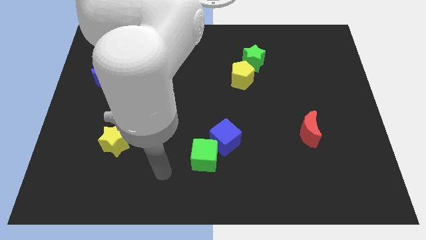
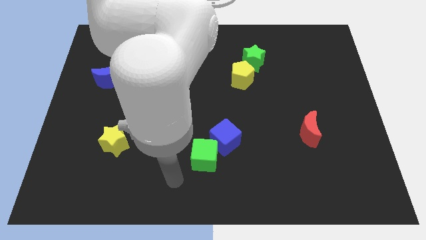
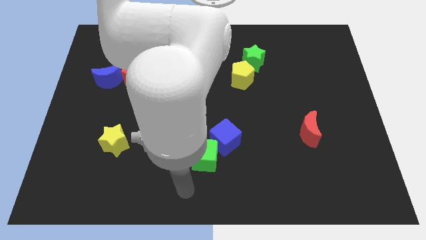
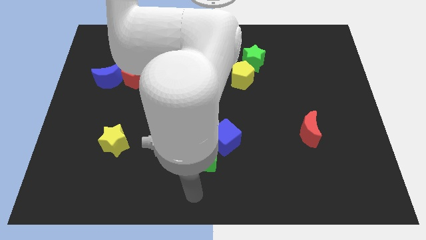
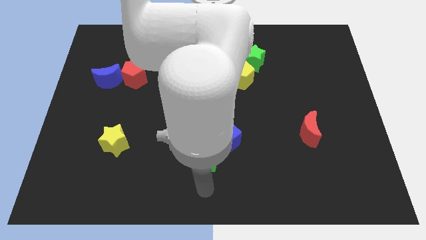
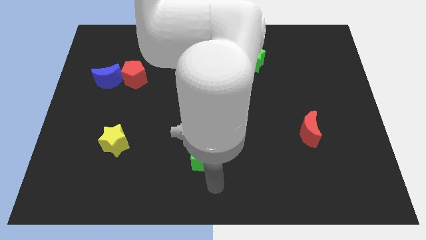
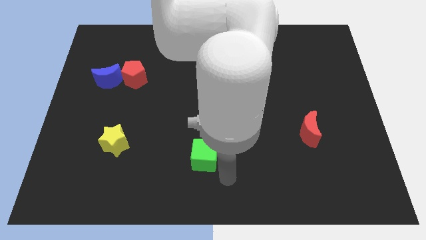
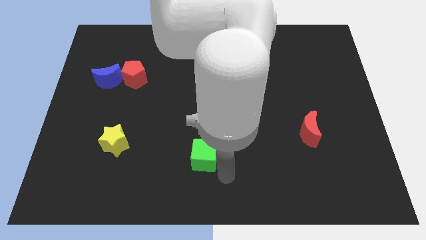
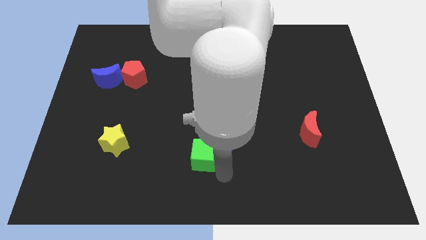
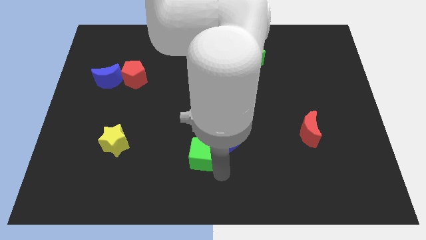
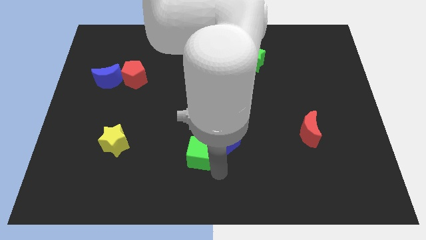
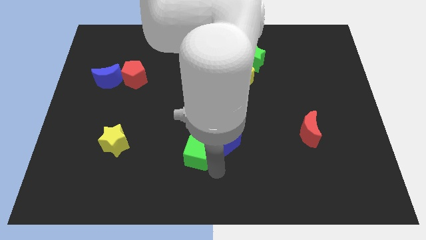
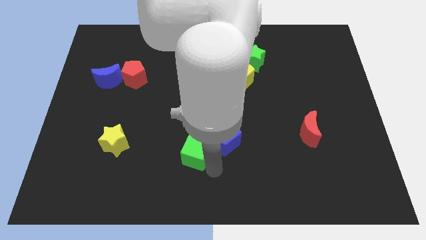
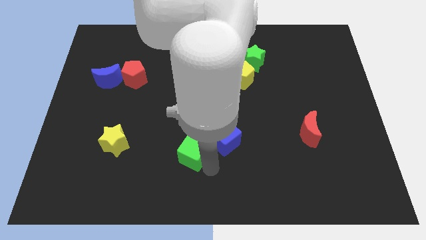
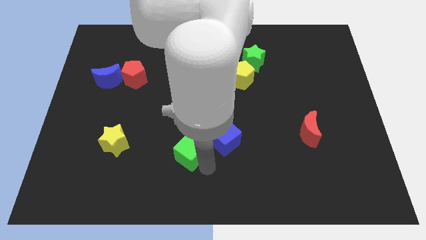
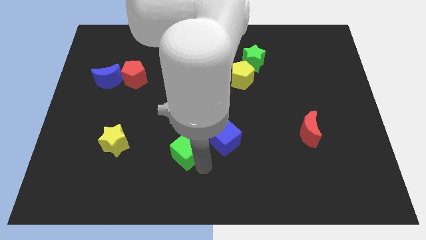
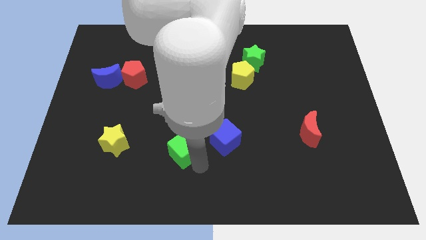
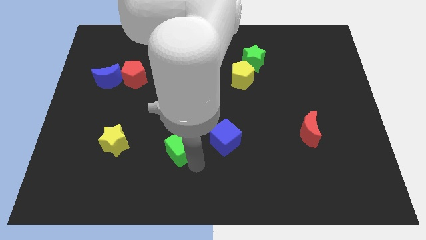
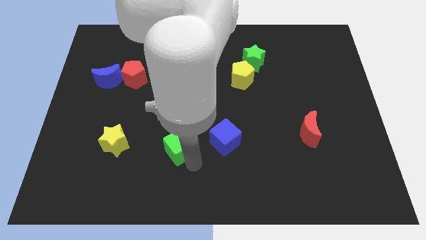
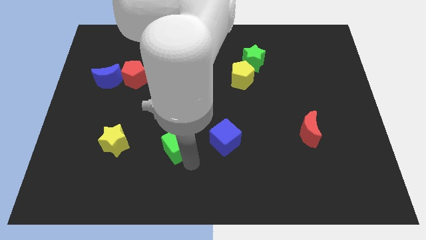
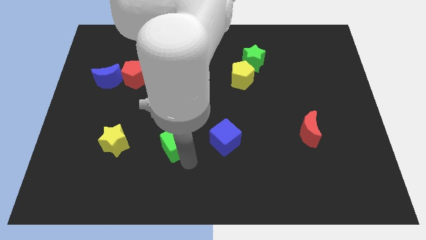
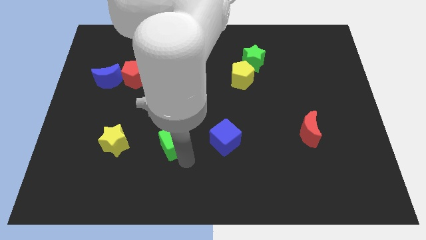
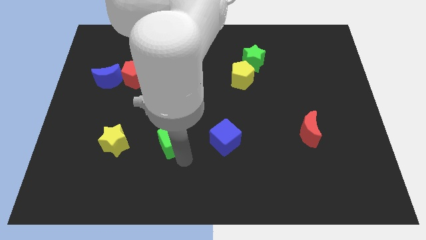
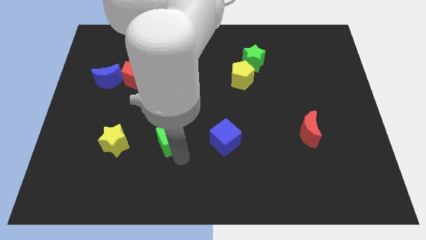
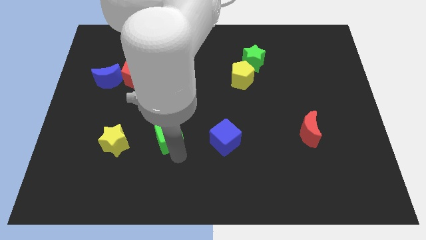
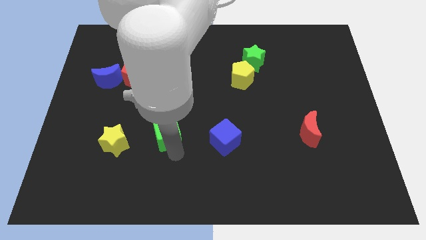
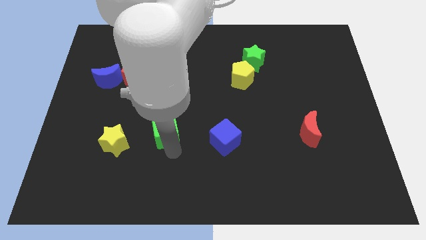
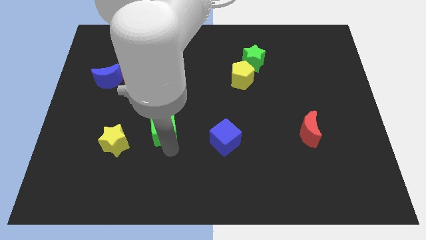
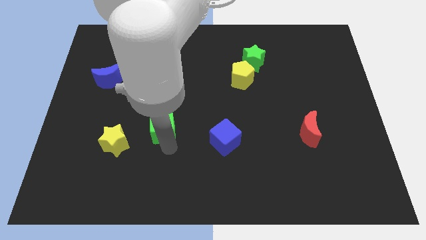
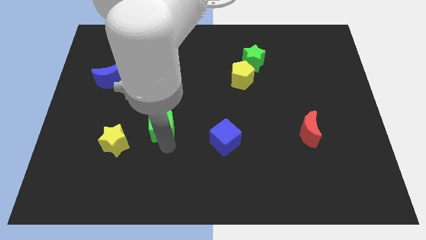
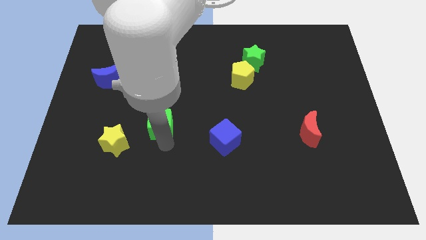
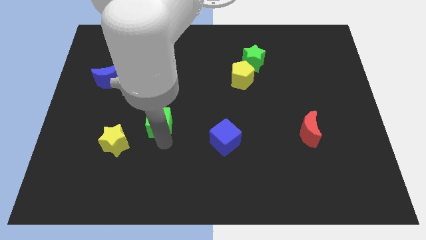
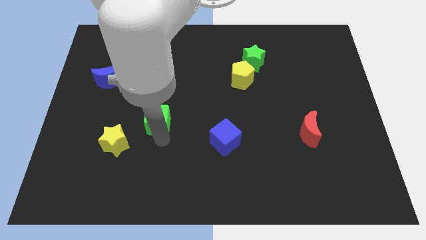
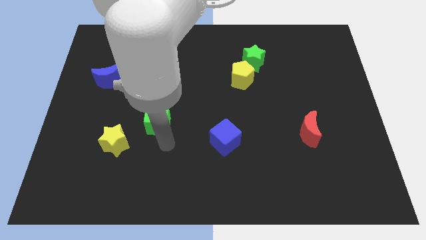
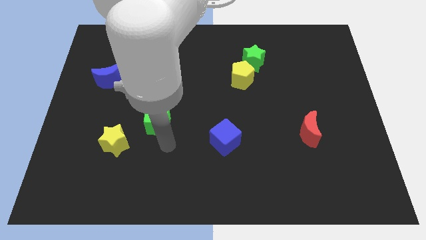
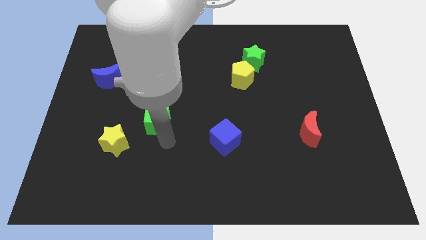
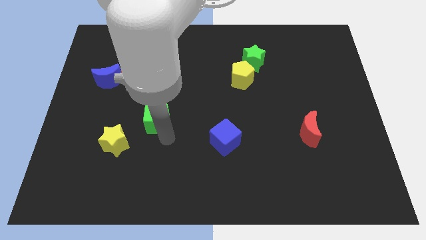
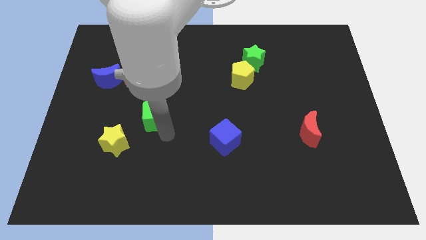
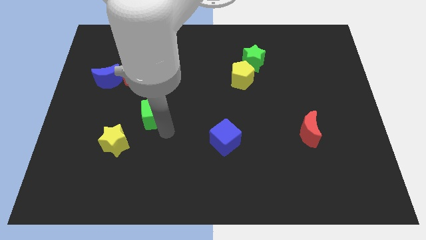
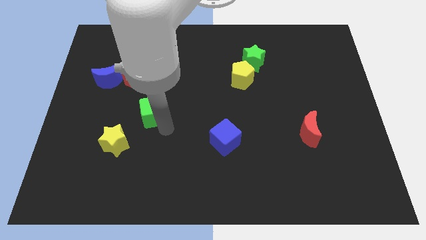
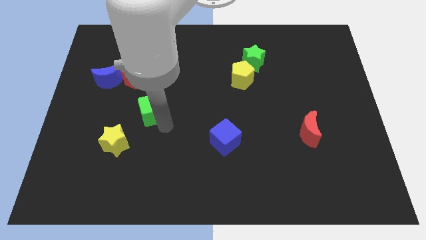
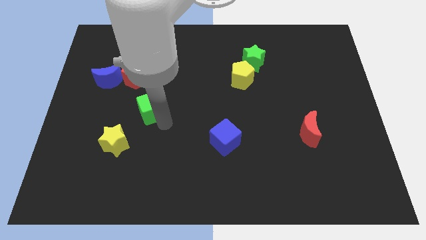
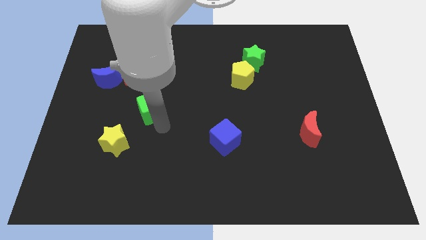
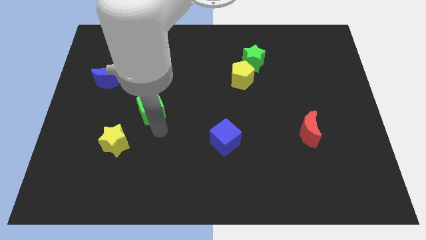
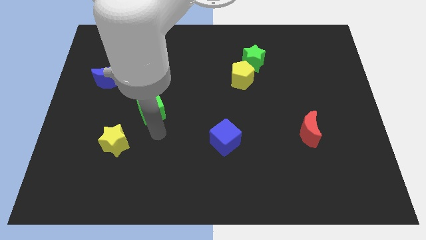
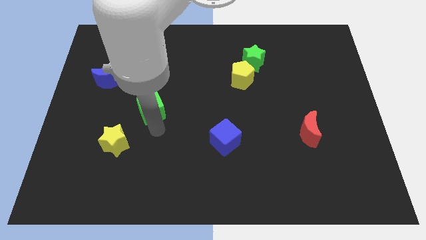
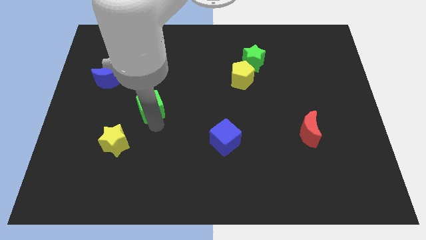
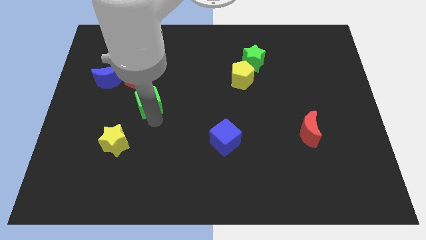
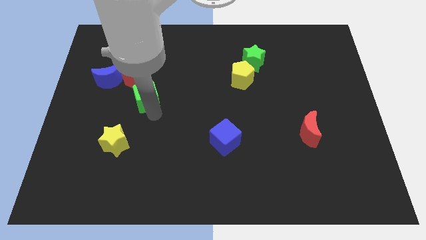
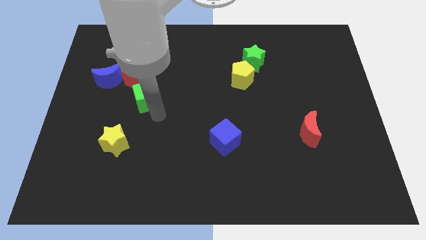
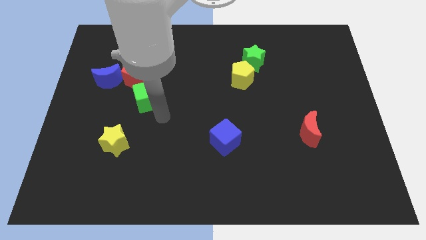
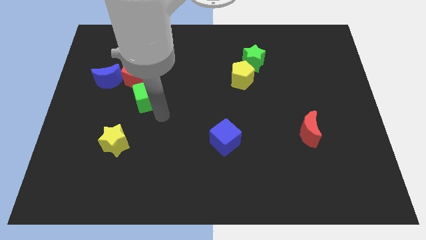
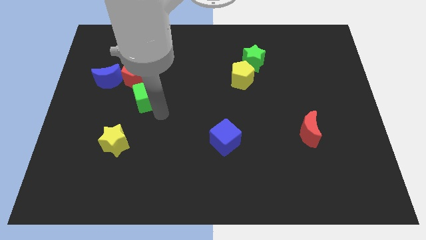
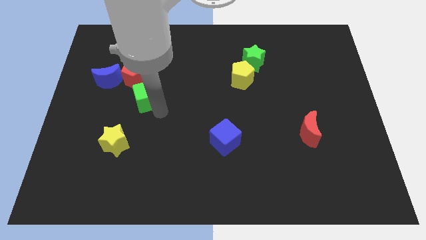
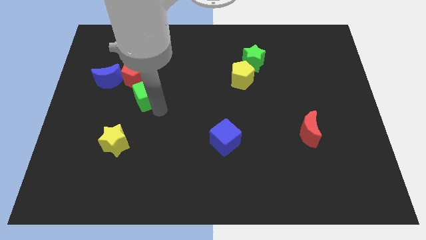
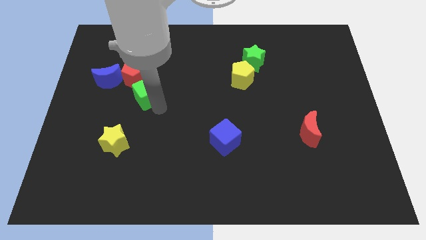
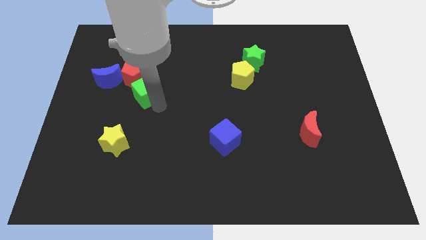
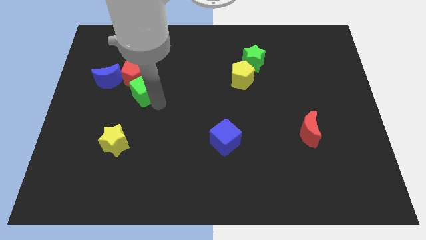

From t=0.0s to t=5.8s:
push the green cube close to the red pentagon

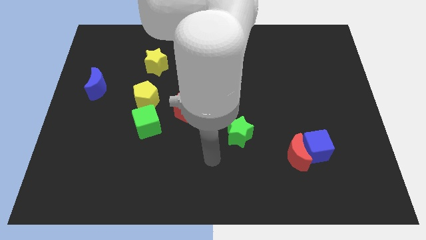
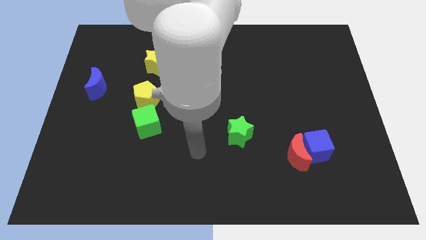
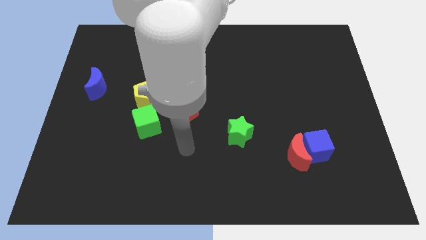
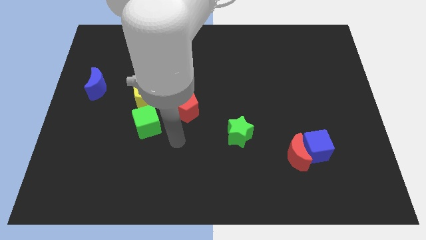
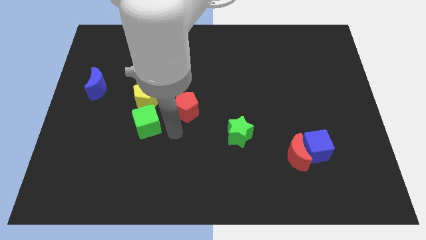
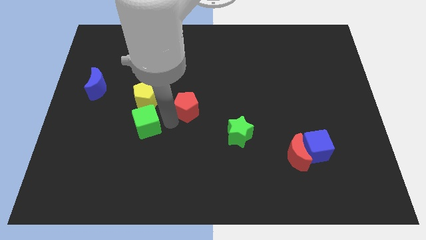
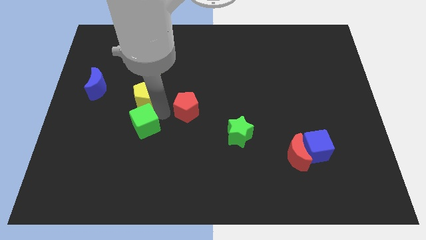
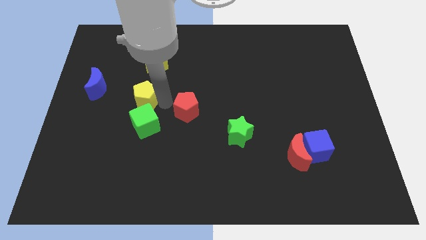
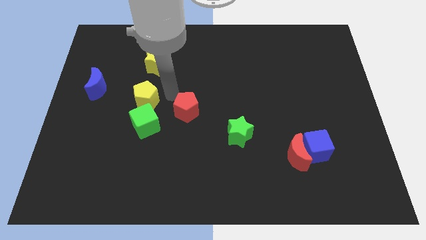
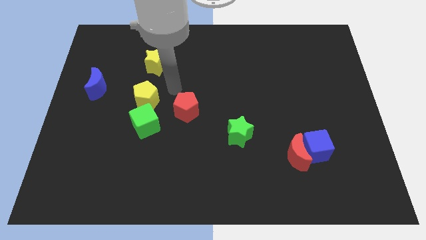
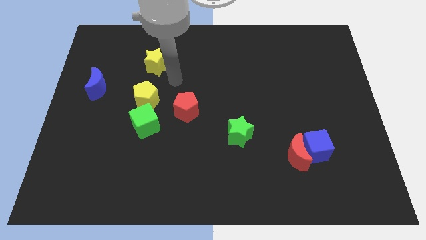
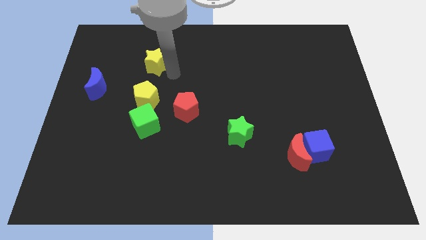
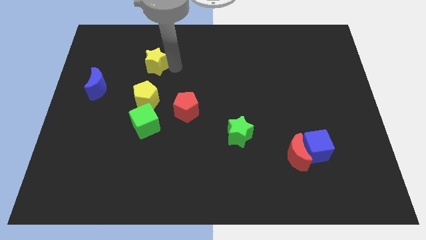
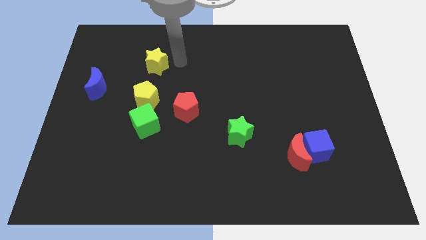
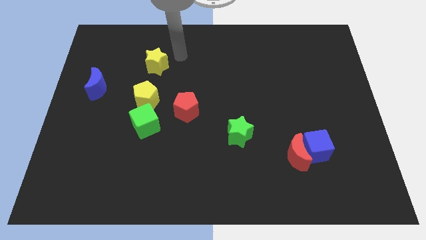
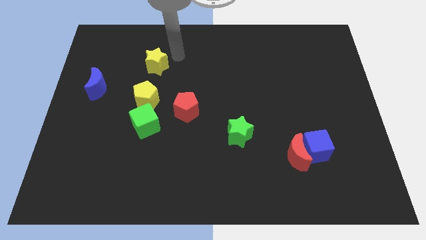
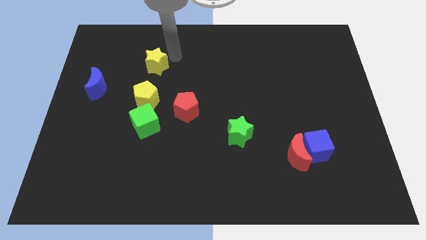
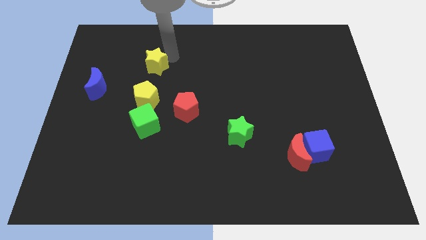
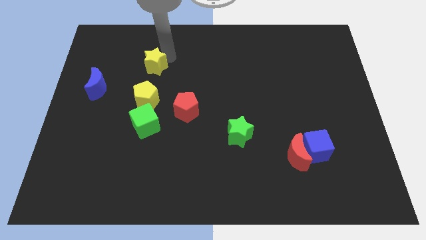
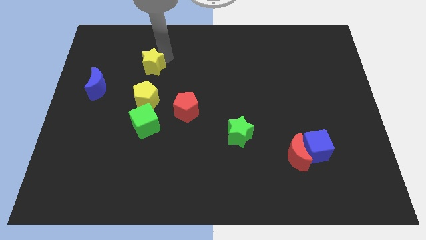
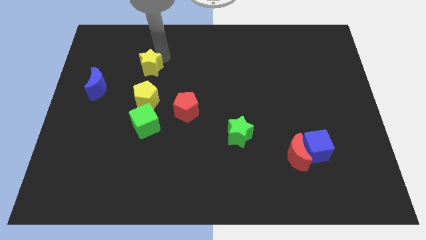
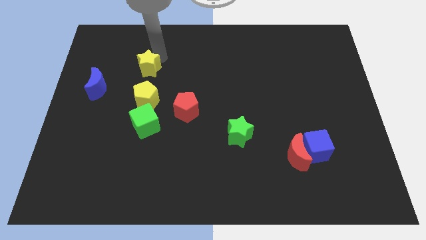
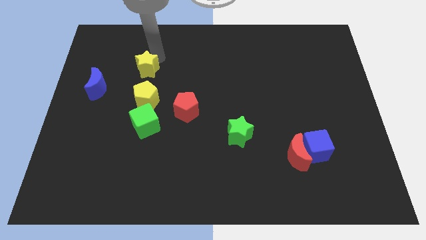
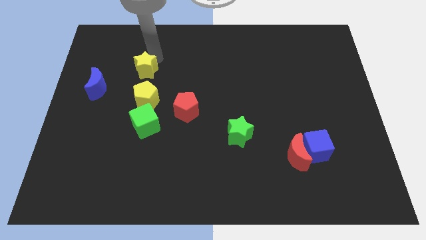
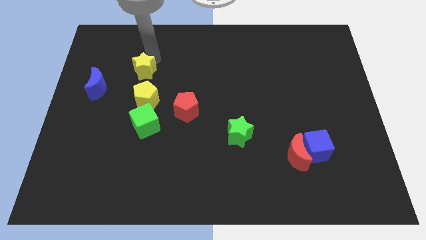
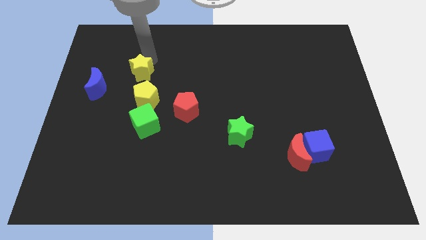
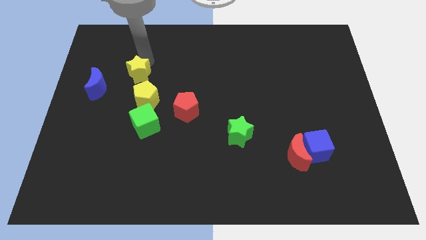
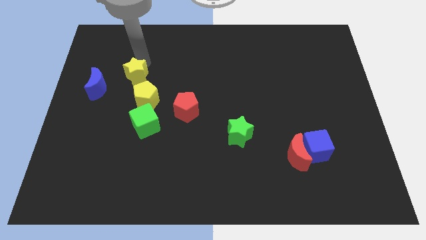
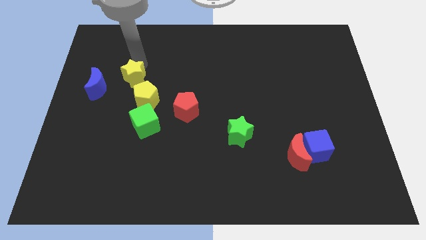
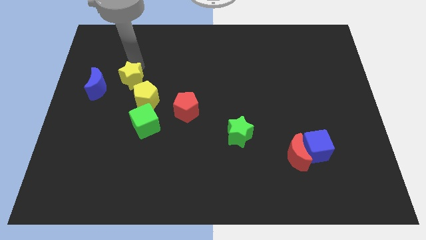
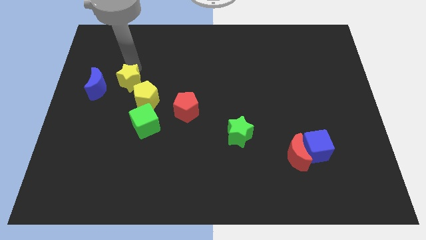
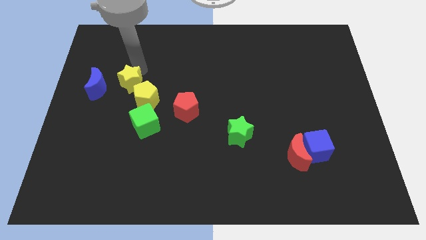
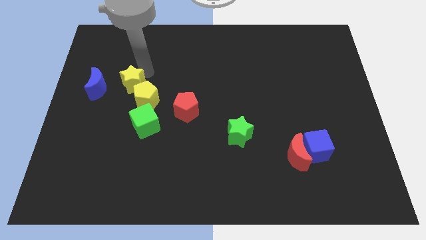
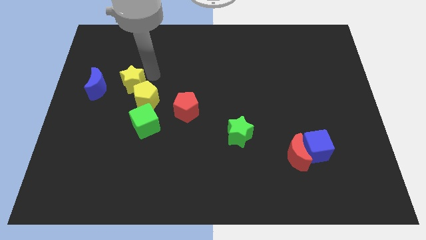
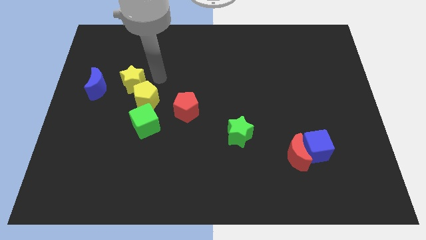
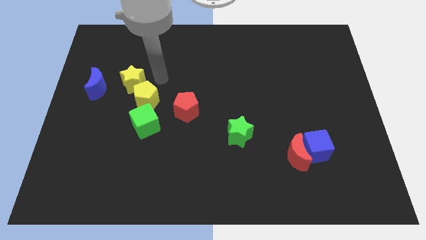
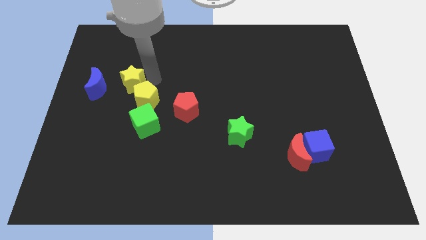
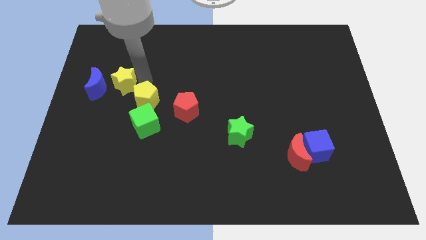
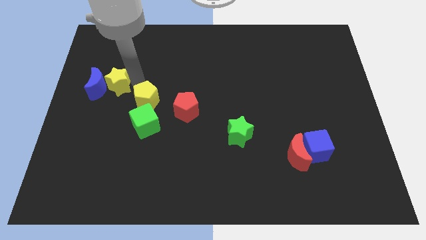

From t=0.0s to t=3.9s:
put the yellow star close to the blue moon
